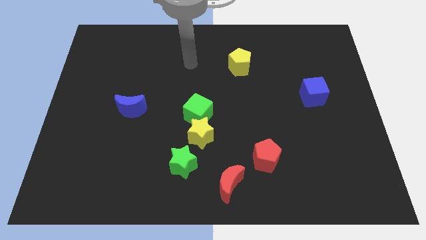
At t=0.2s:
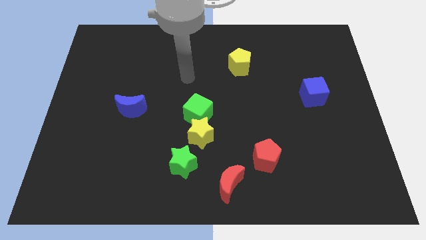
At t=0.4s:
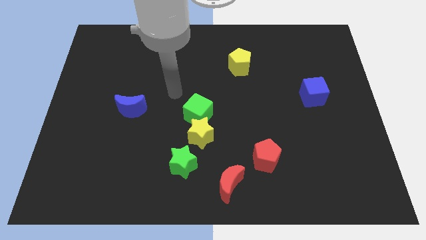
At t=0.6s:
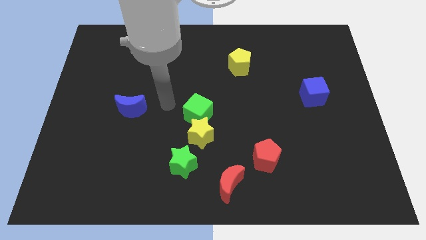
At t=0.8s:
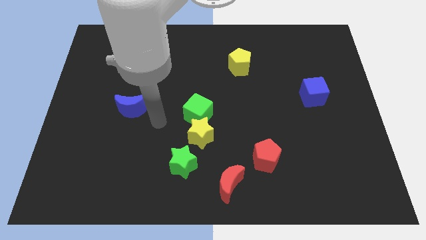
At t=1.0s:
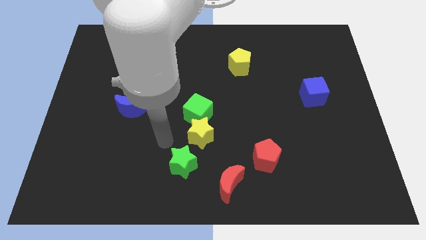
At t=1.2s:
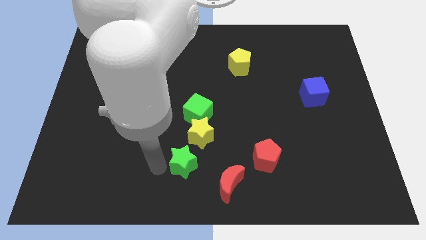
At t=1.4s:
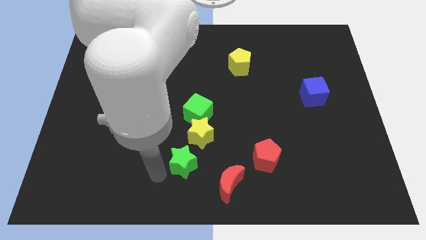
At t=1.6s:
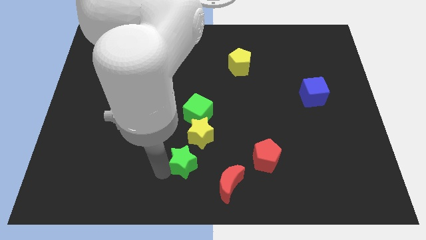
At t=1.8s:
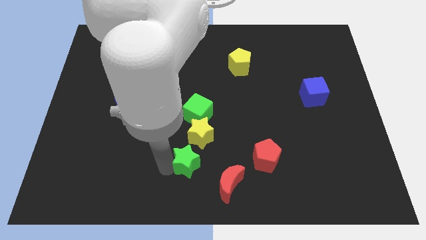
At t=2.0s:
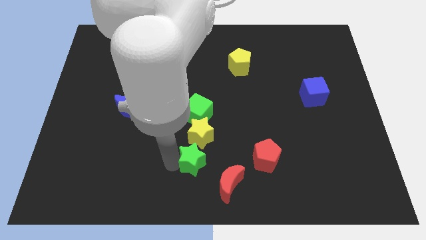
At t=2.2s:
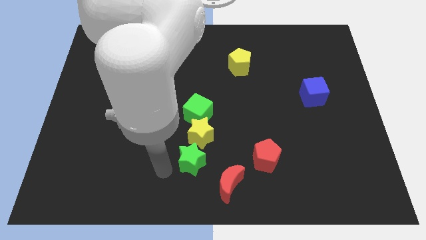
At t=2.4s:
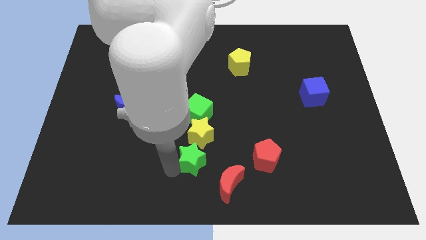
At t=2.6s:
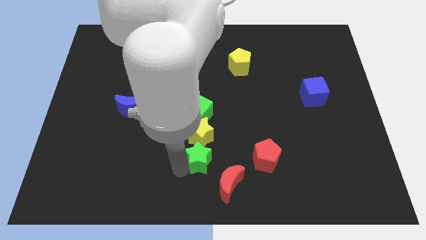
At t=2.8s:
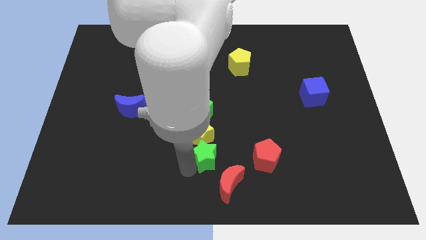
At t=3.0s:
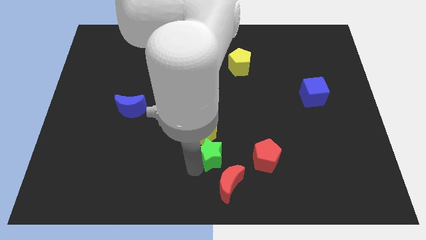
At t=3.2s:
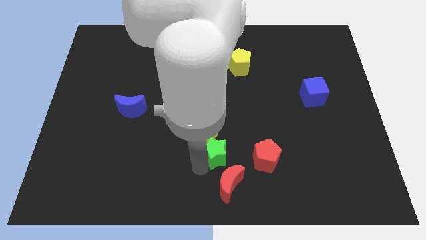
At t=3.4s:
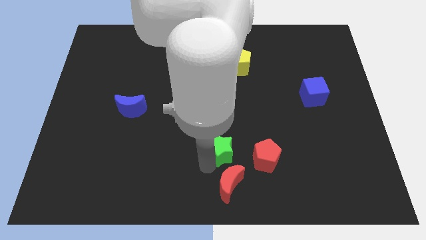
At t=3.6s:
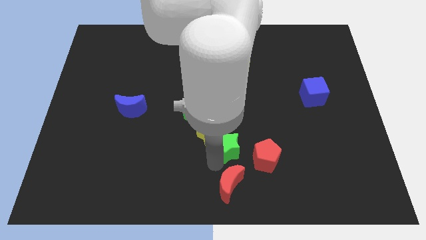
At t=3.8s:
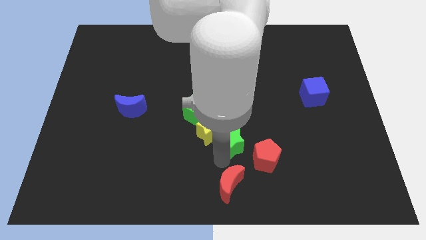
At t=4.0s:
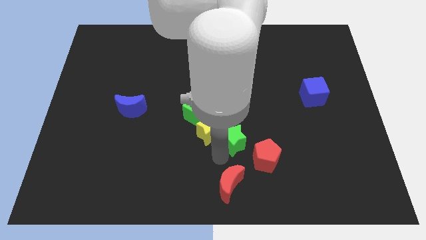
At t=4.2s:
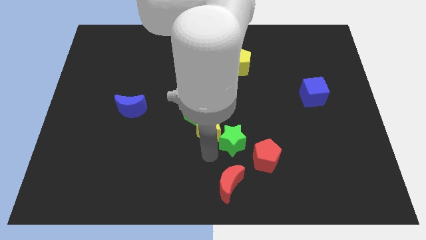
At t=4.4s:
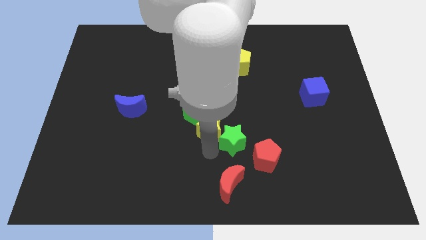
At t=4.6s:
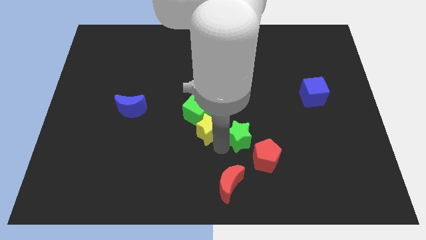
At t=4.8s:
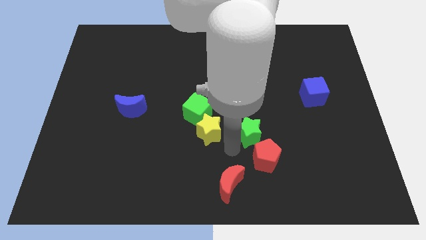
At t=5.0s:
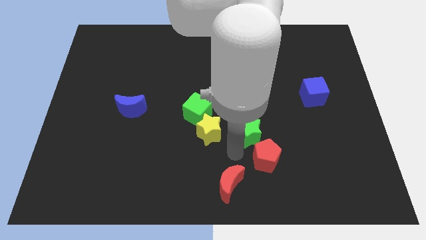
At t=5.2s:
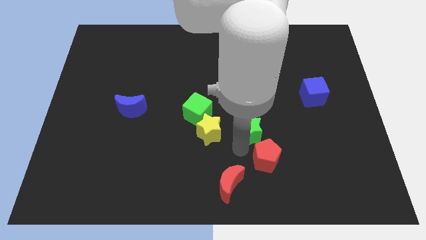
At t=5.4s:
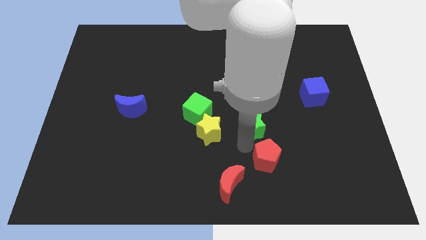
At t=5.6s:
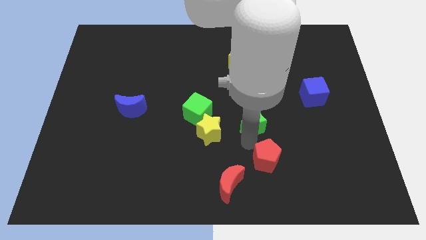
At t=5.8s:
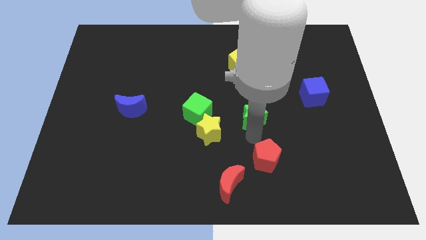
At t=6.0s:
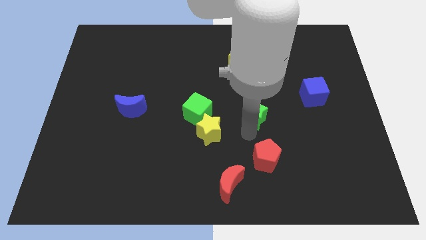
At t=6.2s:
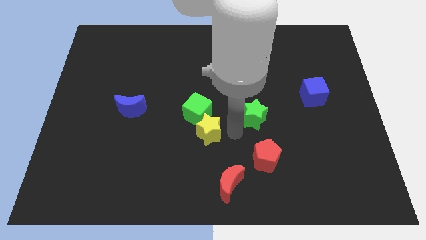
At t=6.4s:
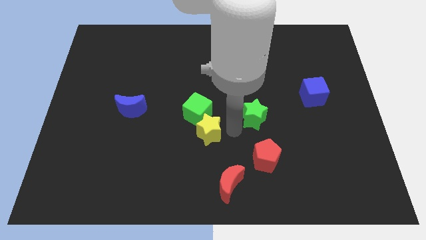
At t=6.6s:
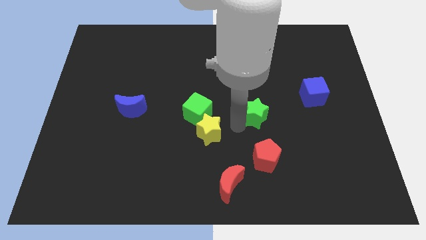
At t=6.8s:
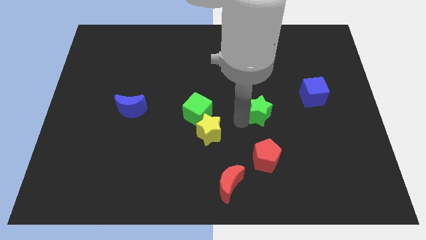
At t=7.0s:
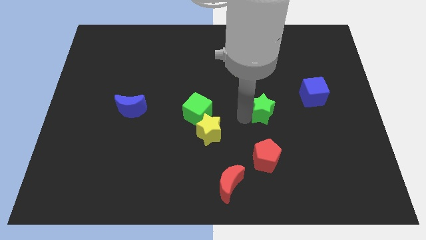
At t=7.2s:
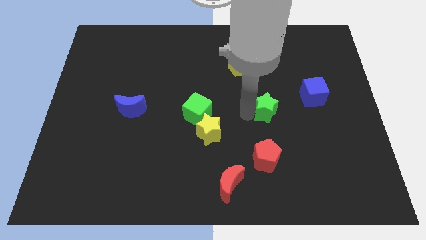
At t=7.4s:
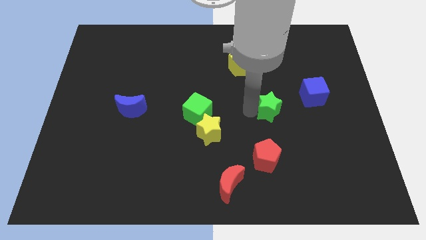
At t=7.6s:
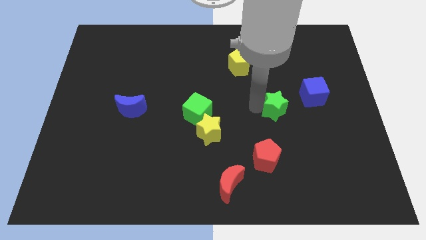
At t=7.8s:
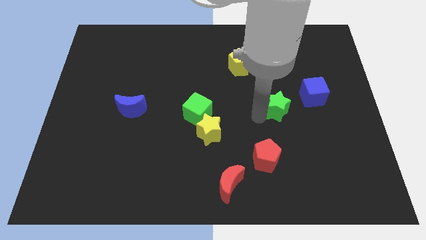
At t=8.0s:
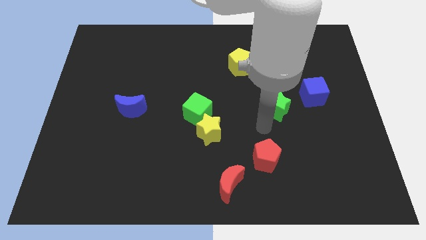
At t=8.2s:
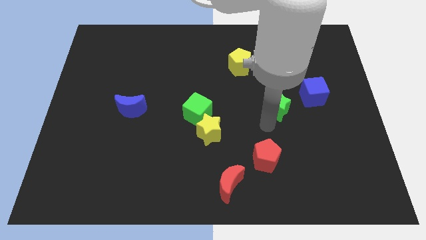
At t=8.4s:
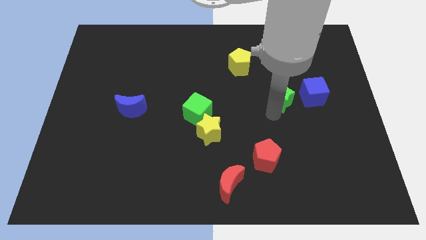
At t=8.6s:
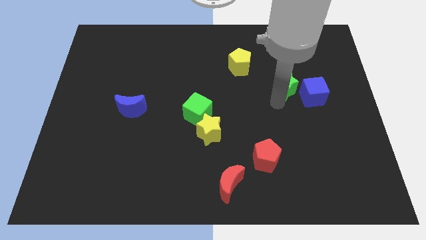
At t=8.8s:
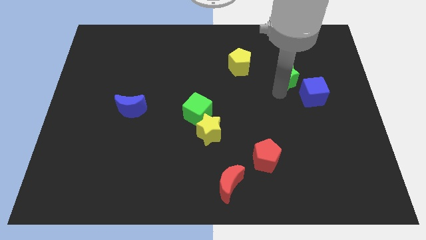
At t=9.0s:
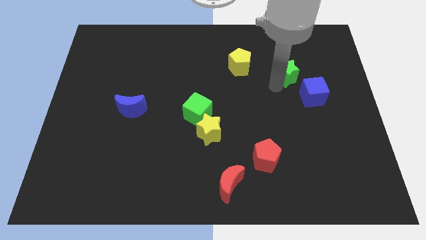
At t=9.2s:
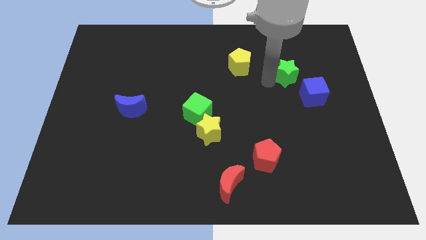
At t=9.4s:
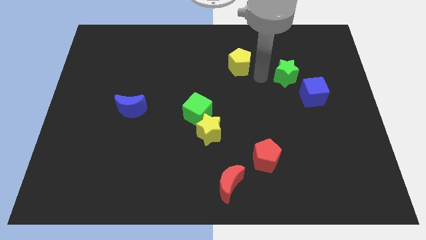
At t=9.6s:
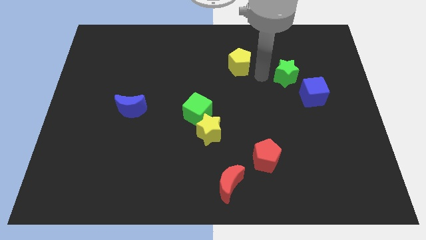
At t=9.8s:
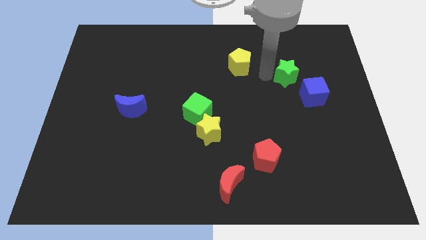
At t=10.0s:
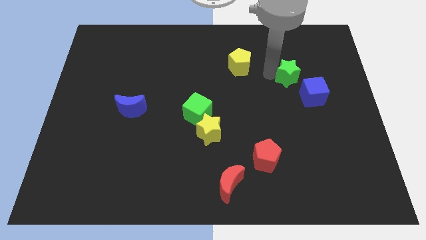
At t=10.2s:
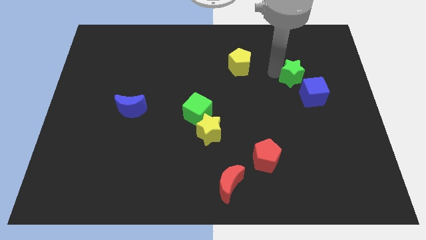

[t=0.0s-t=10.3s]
put the green star above the blue cube
